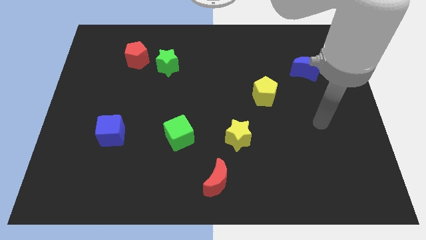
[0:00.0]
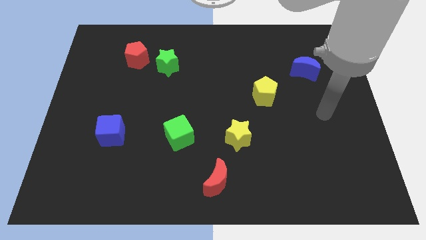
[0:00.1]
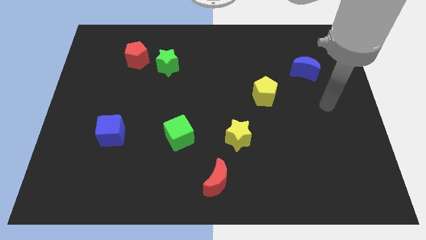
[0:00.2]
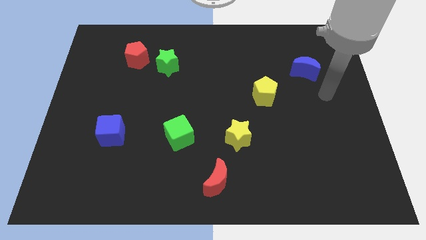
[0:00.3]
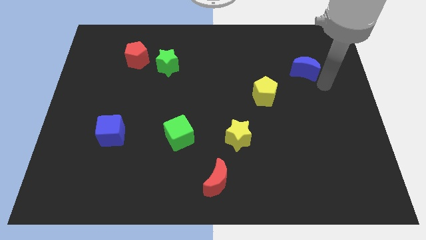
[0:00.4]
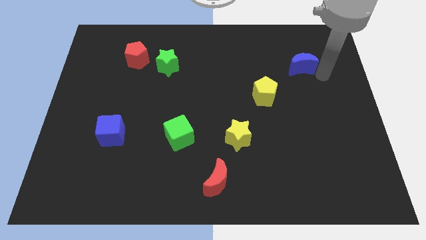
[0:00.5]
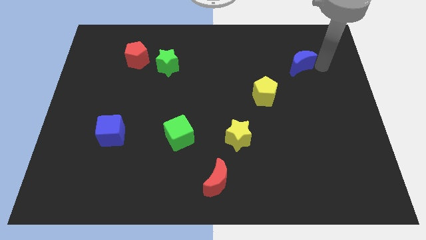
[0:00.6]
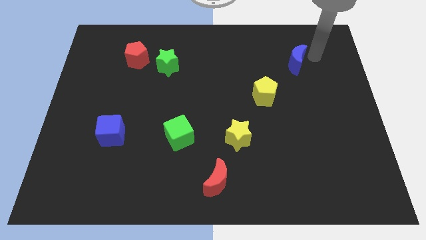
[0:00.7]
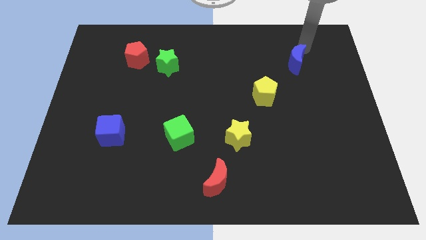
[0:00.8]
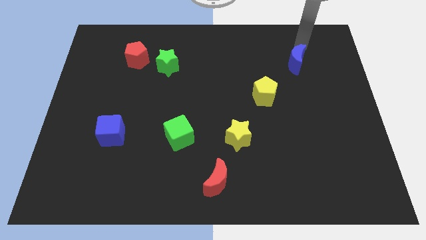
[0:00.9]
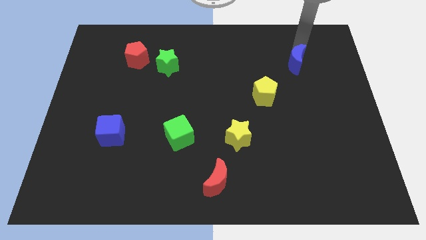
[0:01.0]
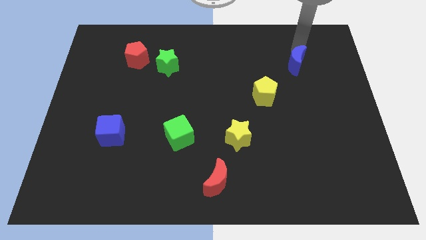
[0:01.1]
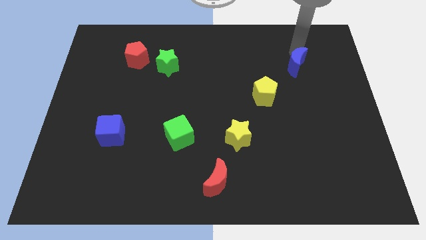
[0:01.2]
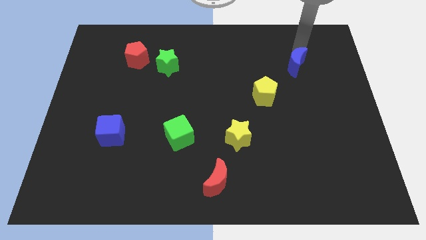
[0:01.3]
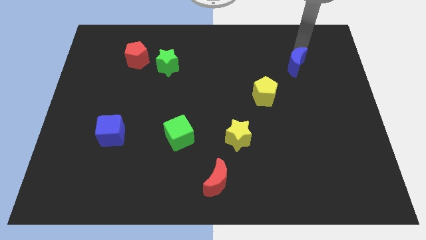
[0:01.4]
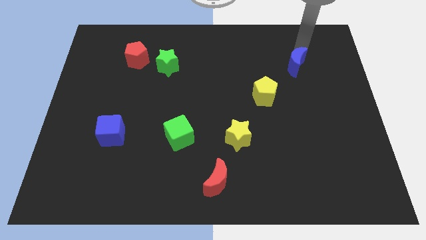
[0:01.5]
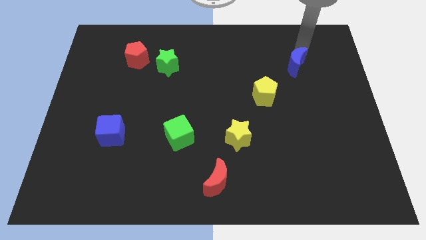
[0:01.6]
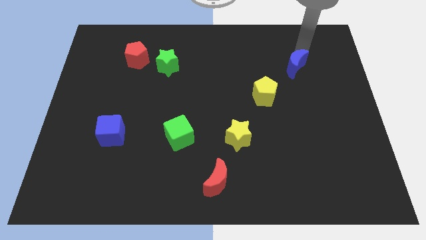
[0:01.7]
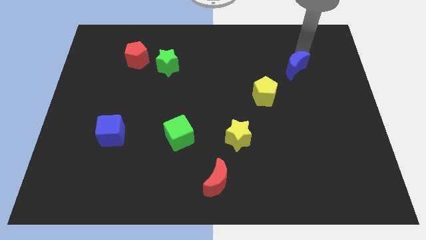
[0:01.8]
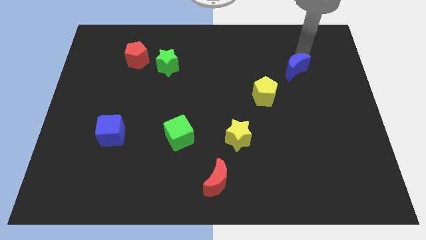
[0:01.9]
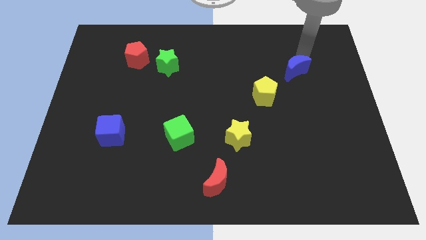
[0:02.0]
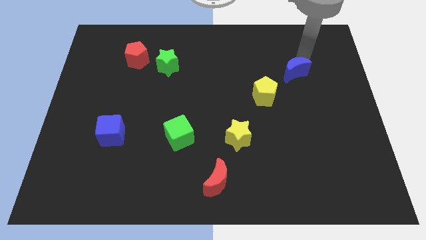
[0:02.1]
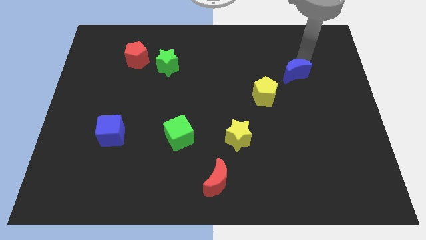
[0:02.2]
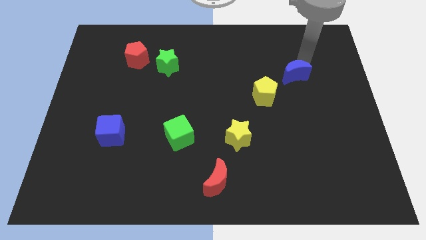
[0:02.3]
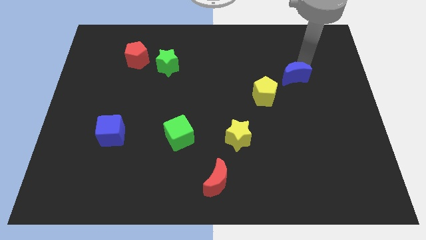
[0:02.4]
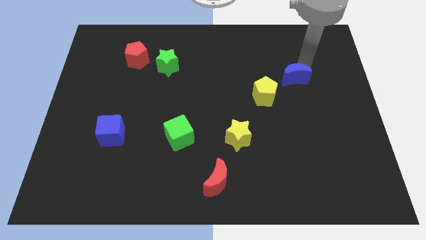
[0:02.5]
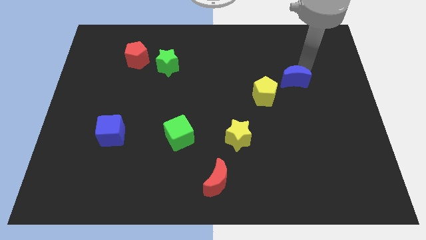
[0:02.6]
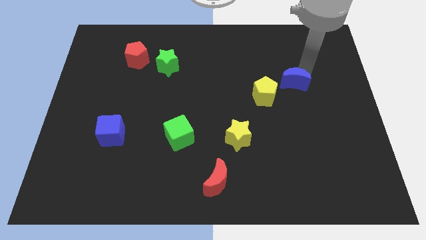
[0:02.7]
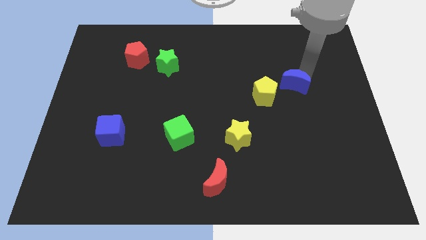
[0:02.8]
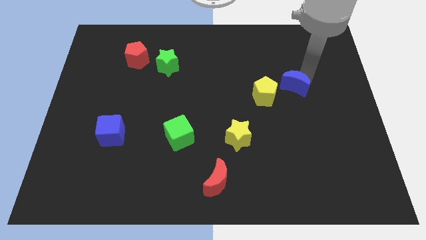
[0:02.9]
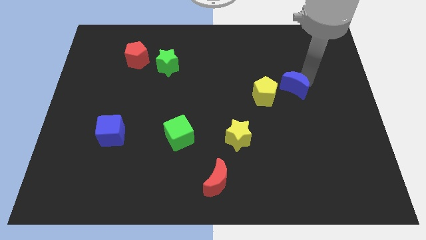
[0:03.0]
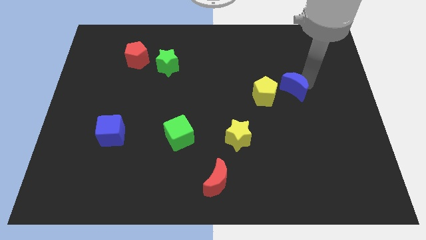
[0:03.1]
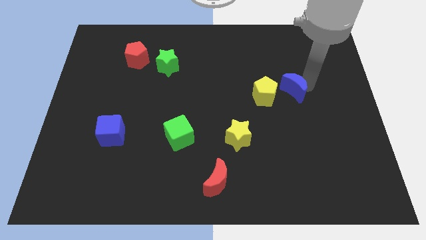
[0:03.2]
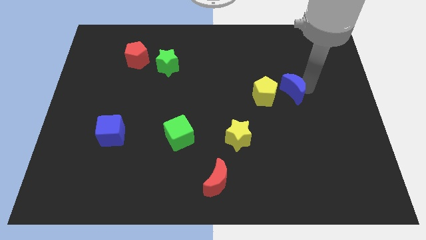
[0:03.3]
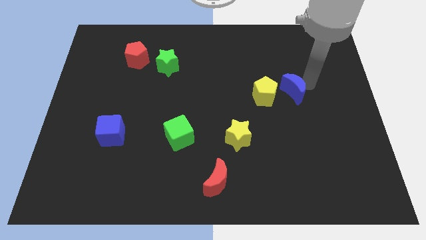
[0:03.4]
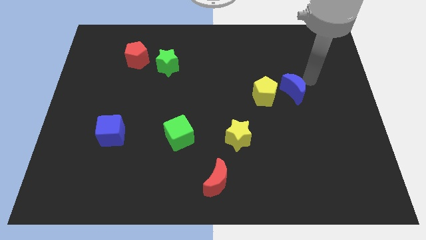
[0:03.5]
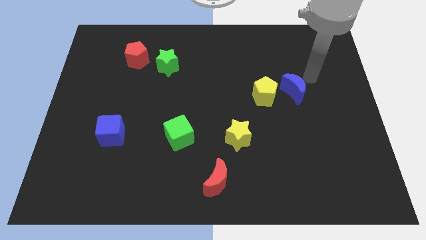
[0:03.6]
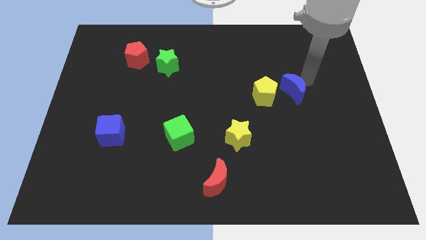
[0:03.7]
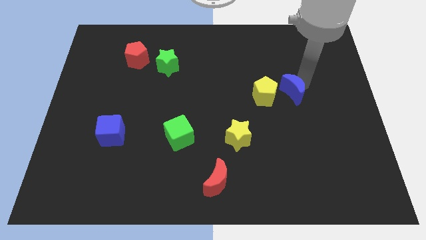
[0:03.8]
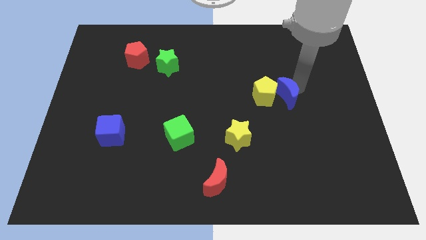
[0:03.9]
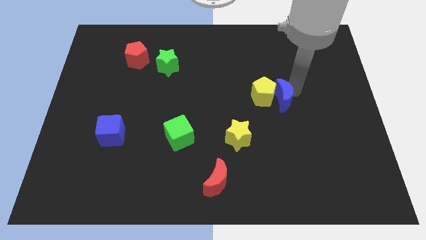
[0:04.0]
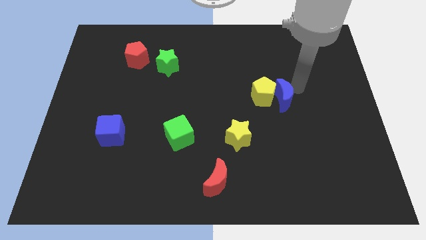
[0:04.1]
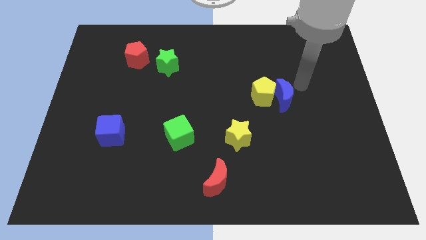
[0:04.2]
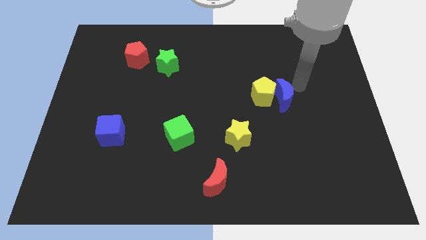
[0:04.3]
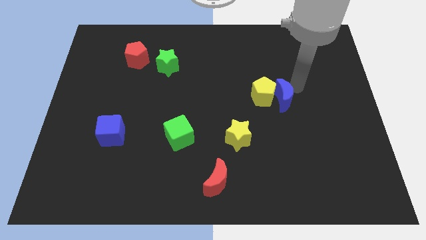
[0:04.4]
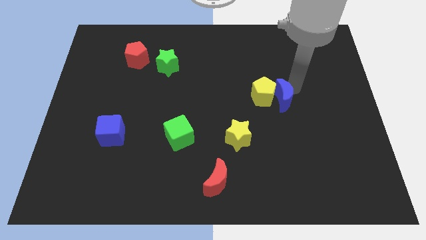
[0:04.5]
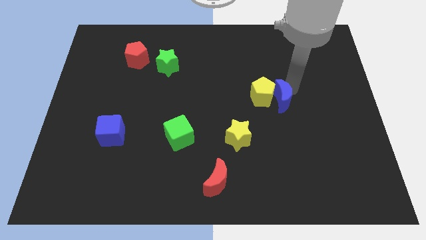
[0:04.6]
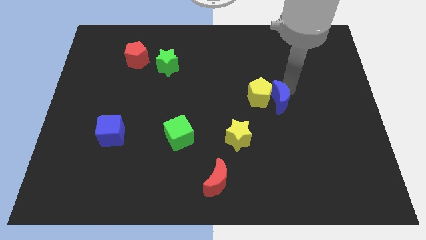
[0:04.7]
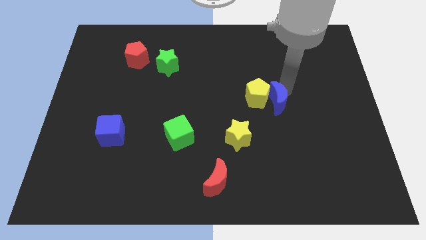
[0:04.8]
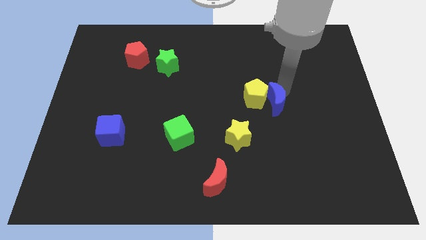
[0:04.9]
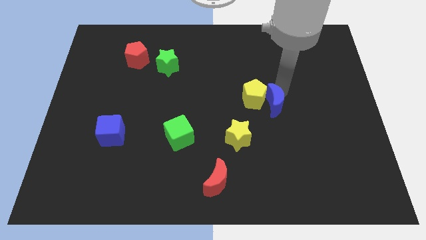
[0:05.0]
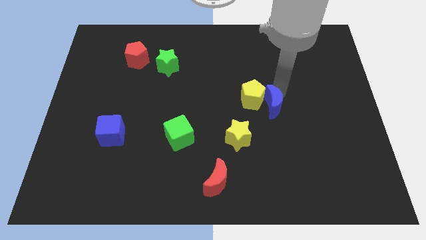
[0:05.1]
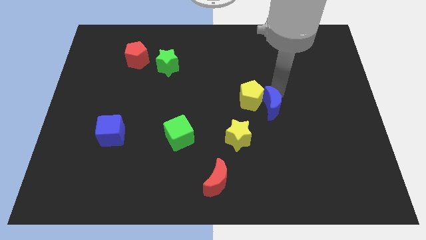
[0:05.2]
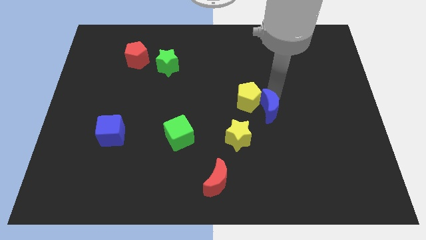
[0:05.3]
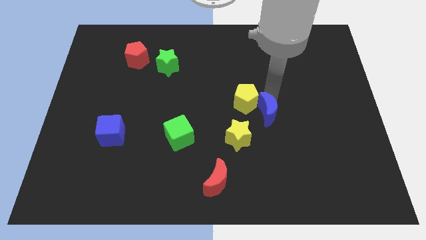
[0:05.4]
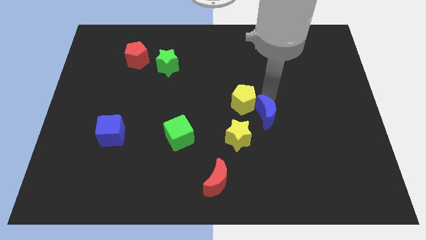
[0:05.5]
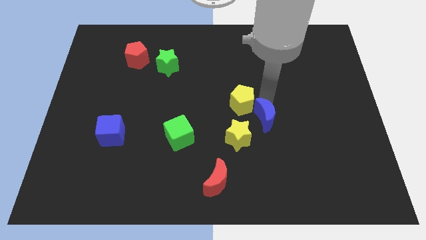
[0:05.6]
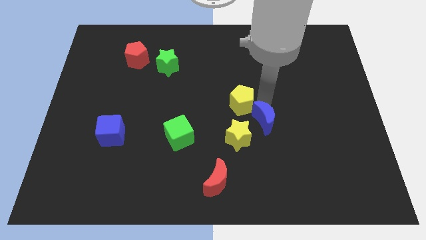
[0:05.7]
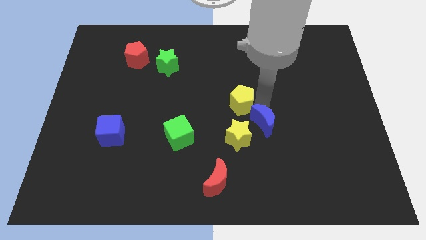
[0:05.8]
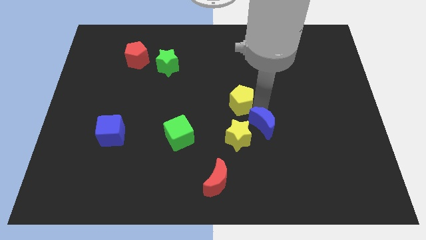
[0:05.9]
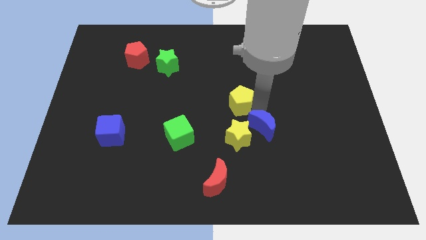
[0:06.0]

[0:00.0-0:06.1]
move the blue moon next to the yellow star

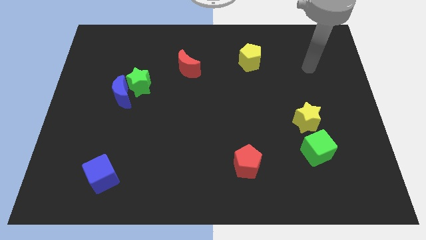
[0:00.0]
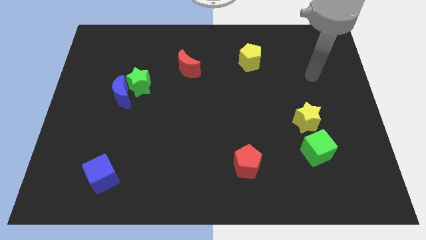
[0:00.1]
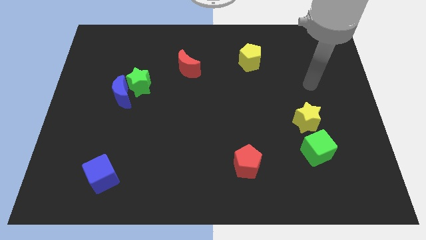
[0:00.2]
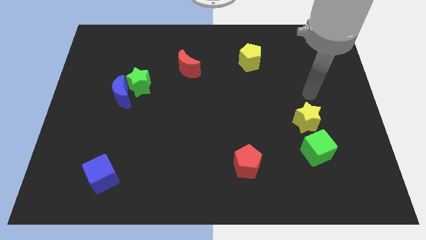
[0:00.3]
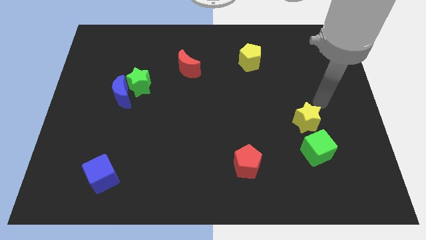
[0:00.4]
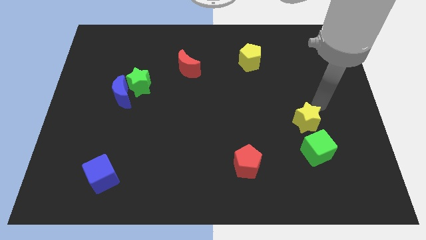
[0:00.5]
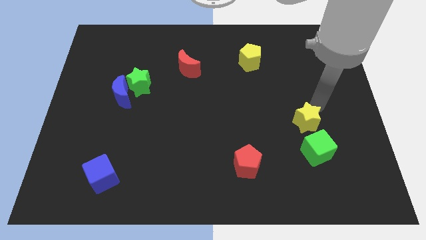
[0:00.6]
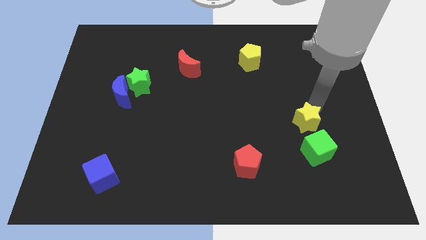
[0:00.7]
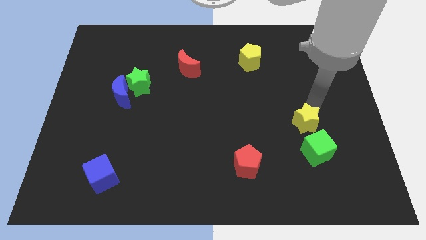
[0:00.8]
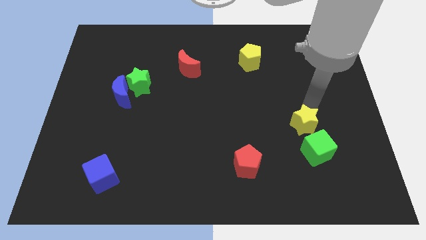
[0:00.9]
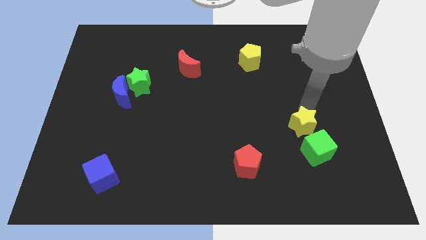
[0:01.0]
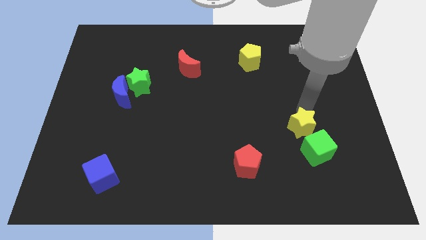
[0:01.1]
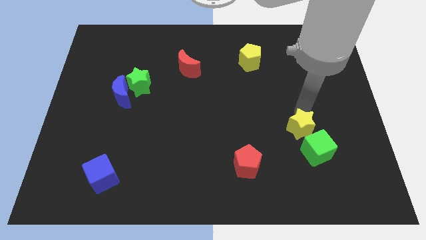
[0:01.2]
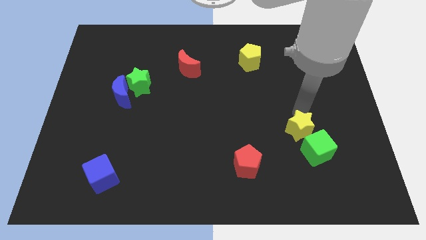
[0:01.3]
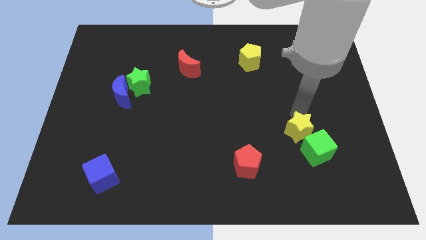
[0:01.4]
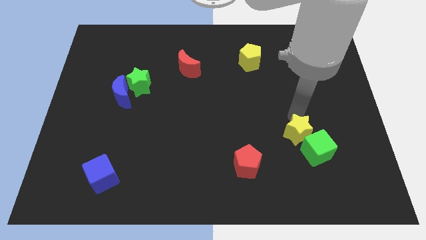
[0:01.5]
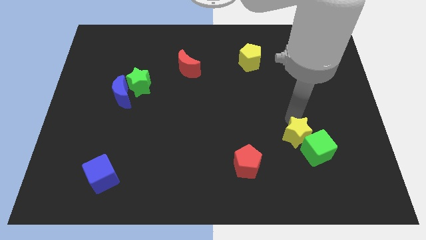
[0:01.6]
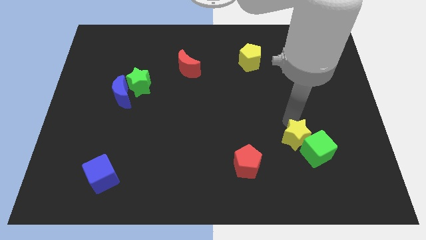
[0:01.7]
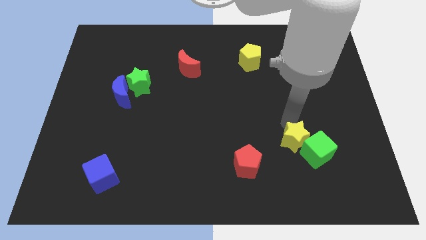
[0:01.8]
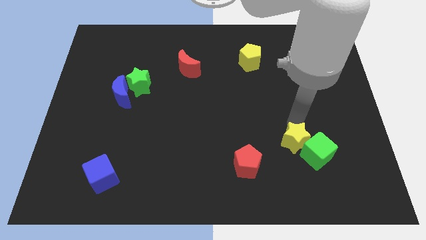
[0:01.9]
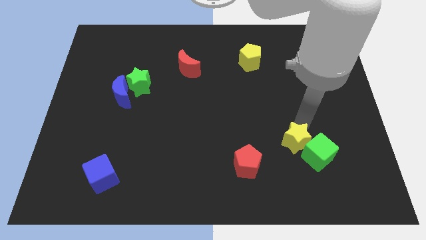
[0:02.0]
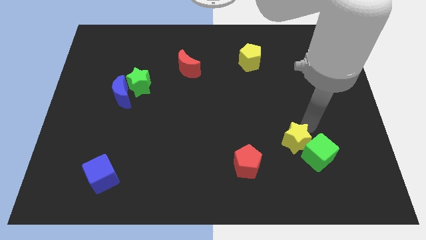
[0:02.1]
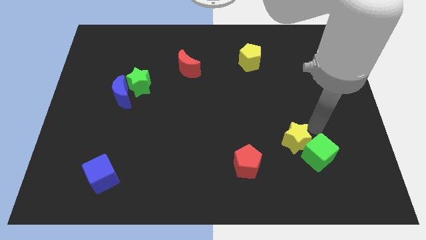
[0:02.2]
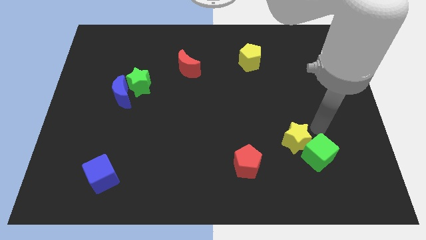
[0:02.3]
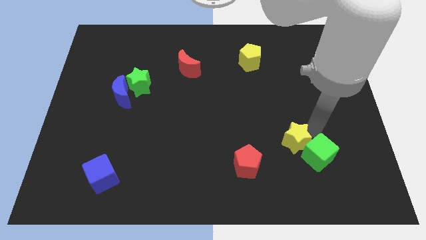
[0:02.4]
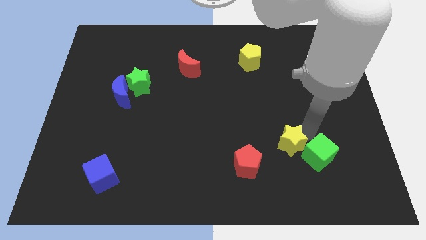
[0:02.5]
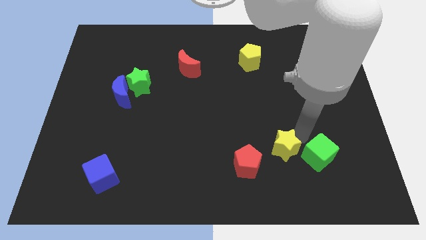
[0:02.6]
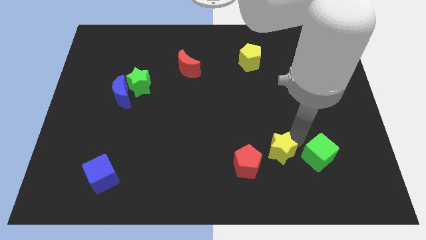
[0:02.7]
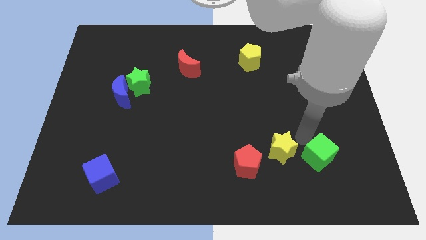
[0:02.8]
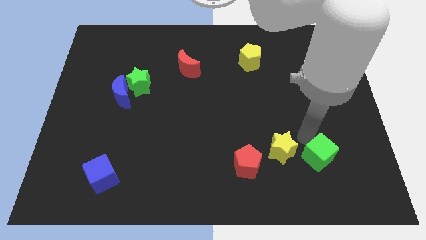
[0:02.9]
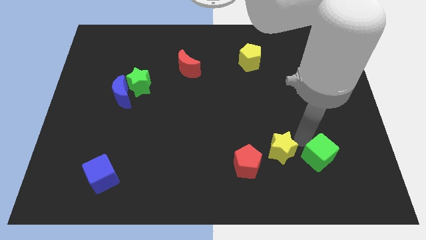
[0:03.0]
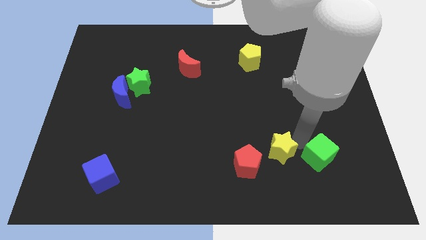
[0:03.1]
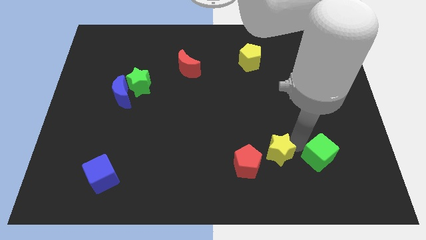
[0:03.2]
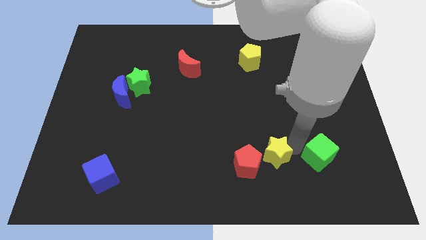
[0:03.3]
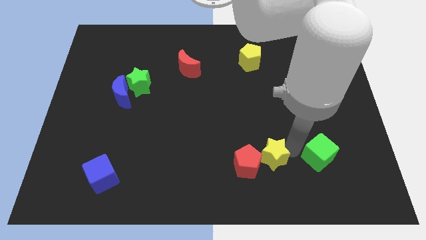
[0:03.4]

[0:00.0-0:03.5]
push the yellow star close to the red pentagon
